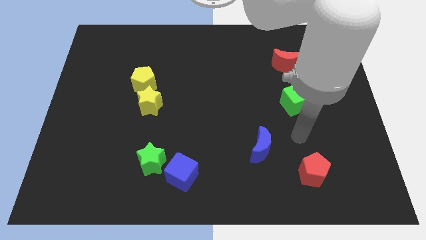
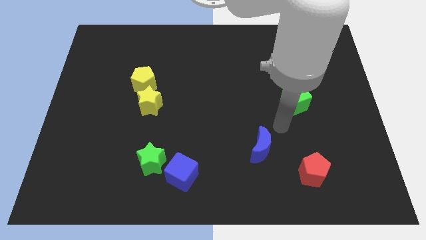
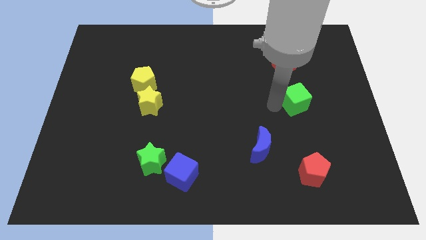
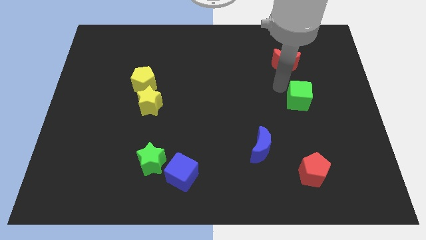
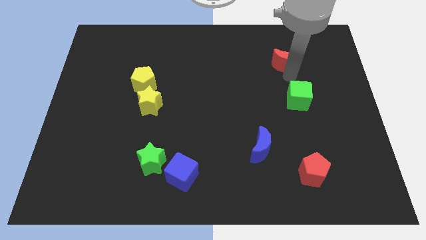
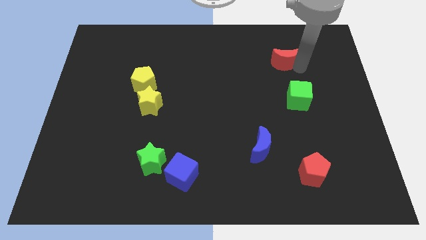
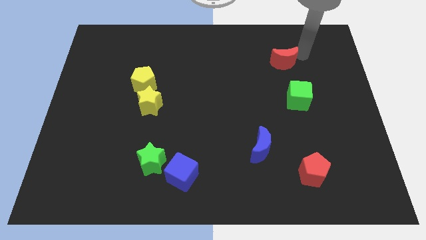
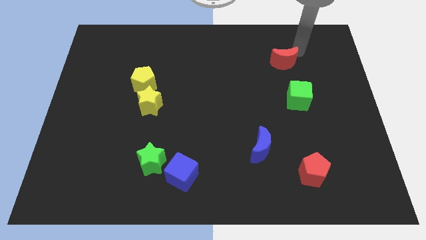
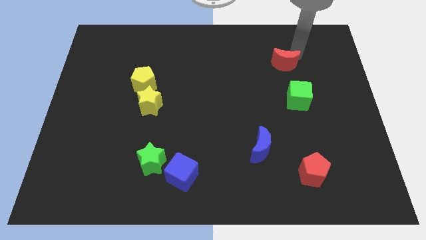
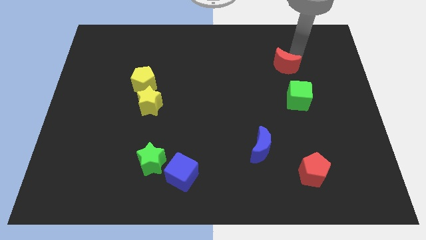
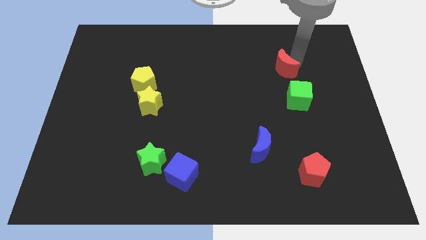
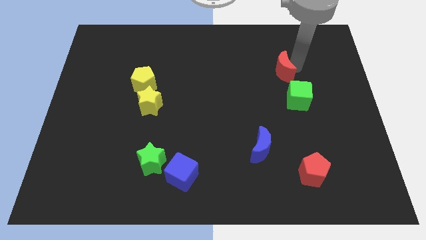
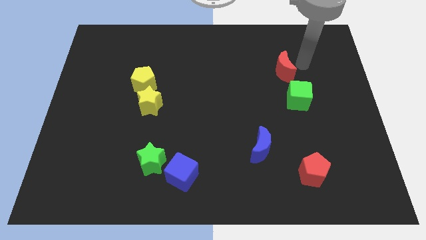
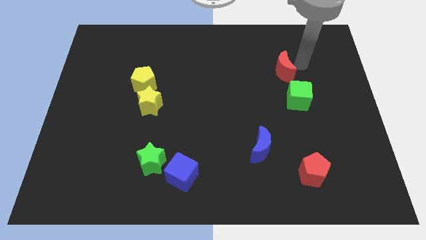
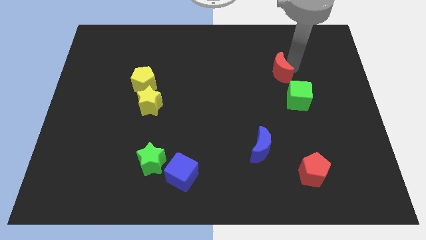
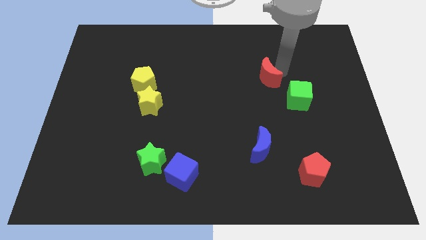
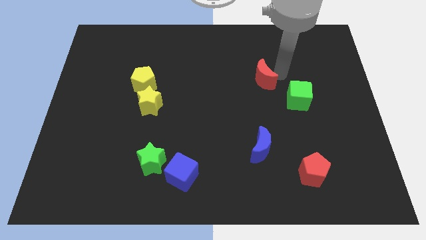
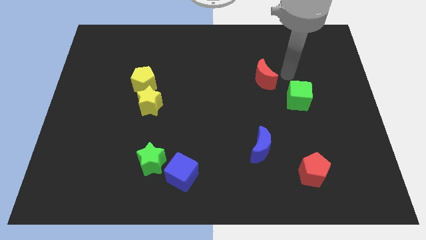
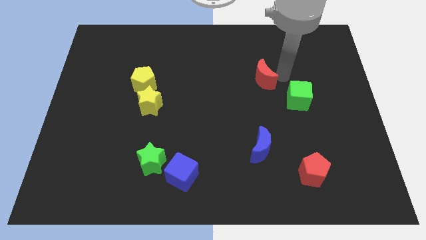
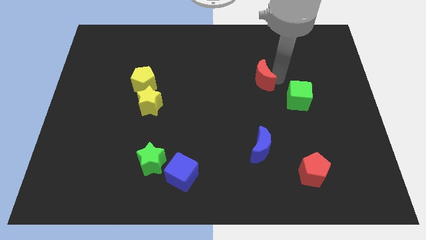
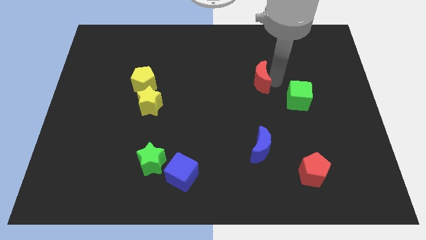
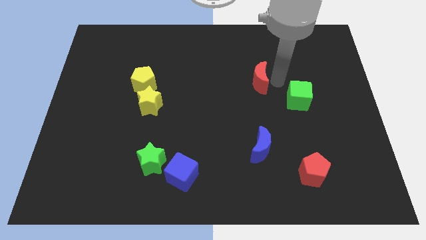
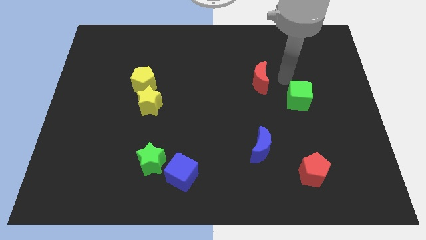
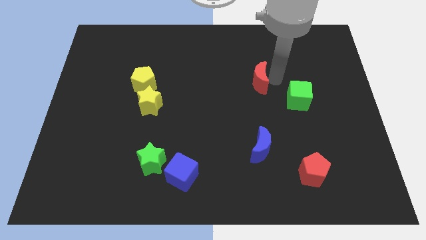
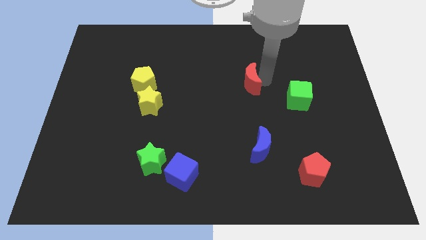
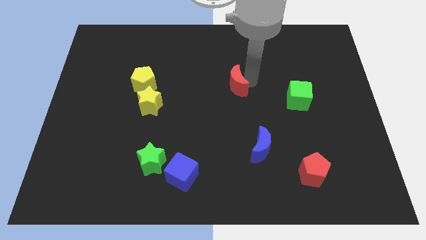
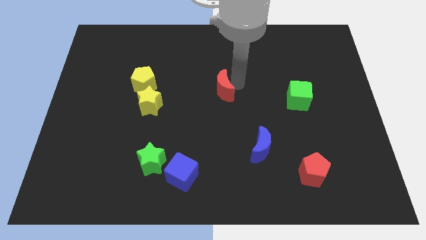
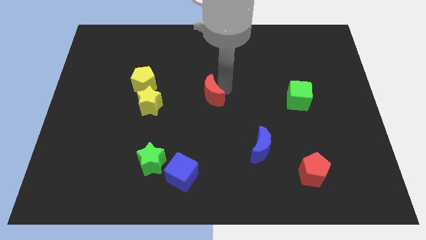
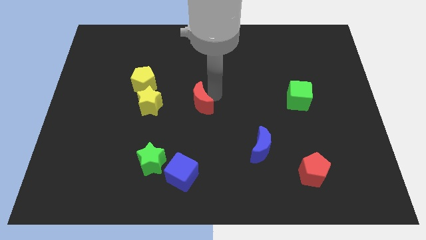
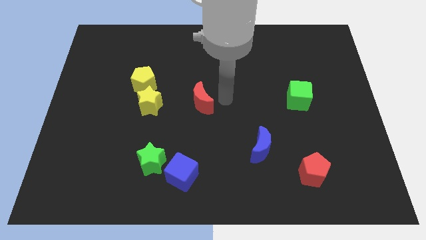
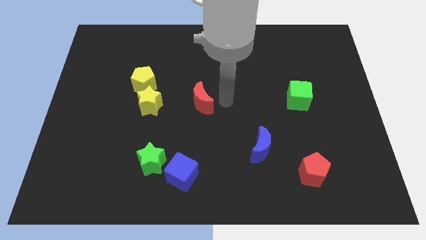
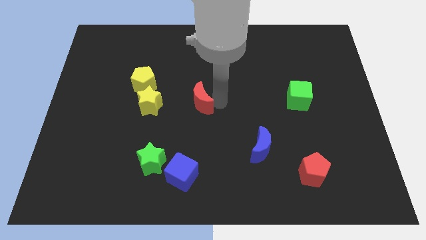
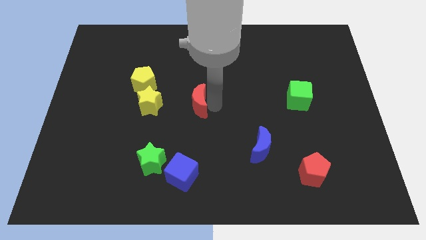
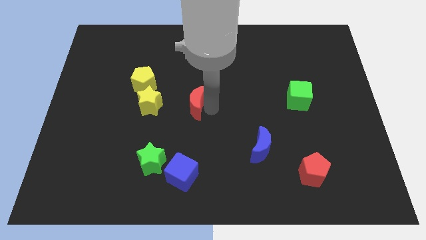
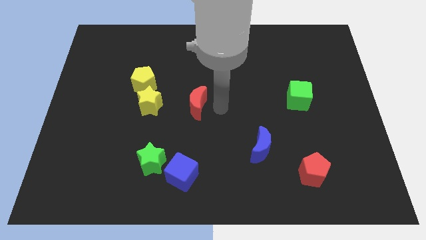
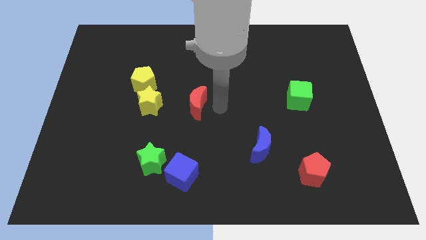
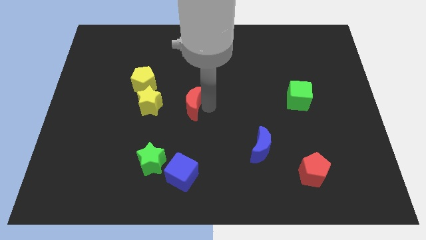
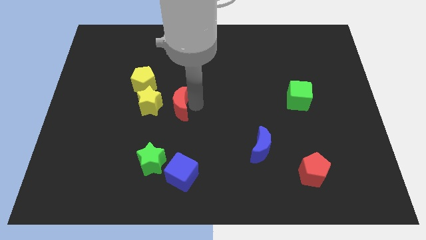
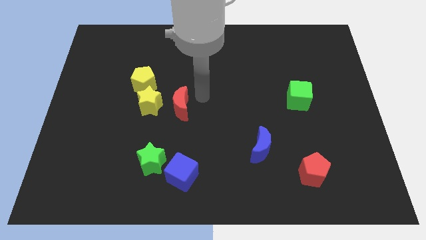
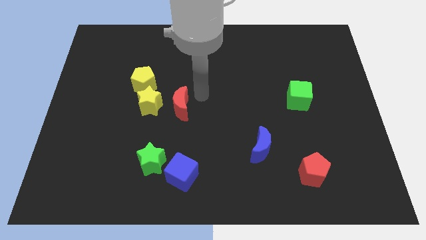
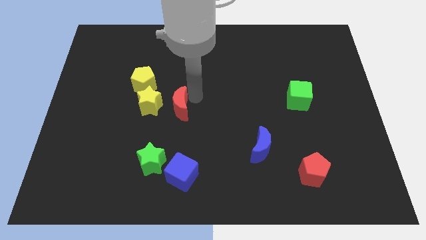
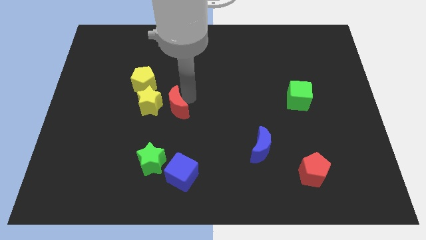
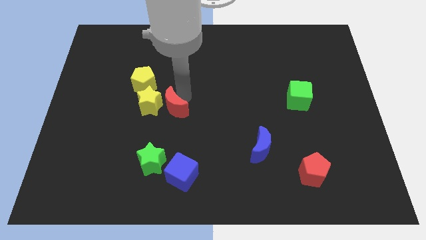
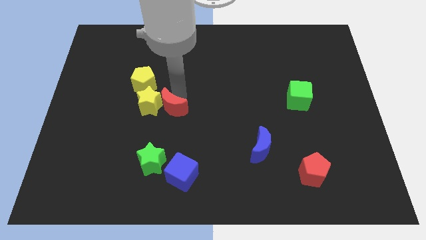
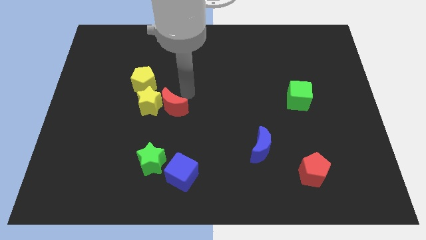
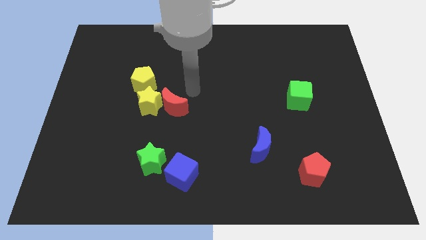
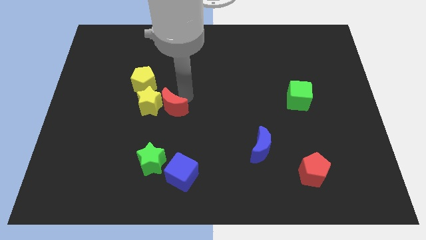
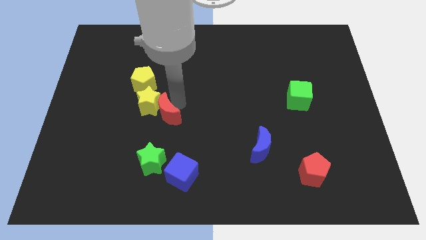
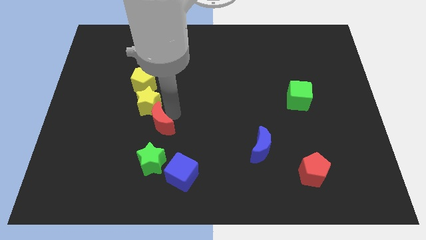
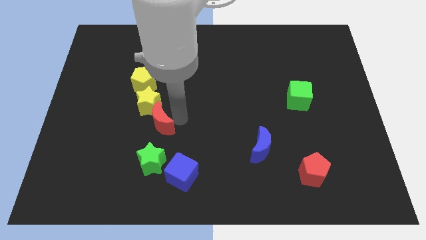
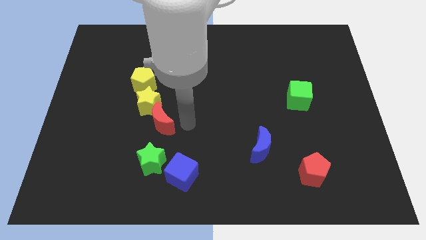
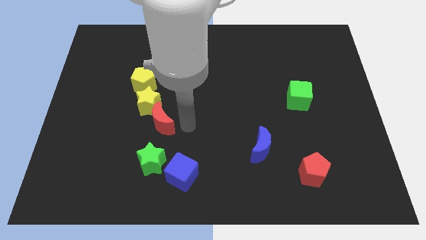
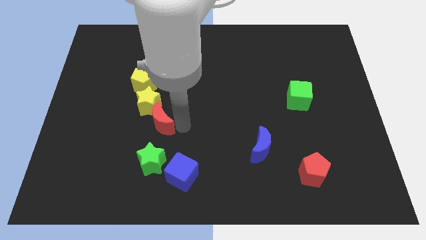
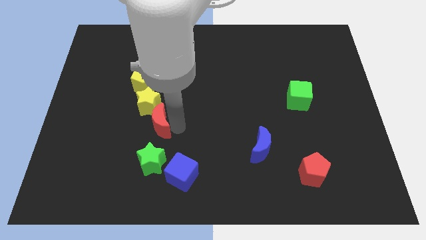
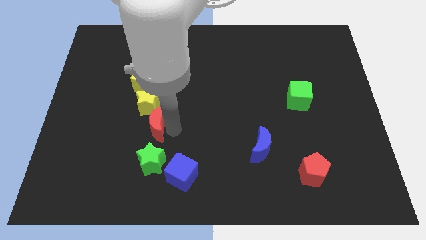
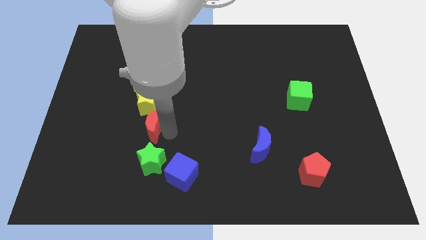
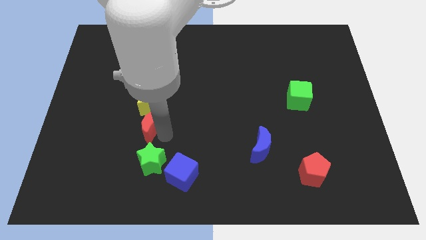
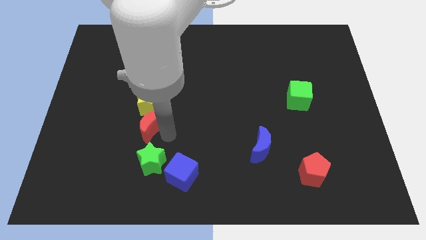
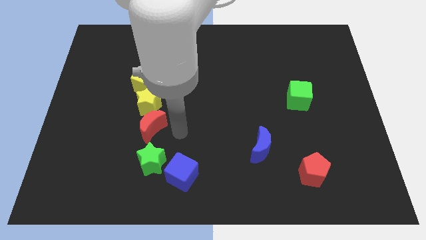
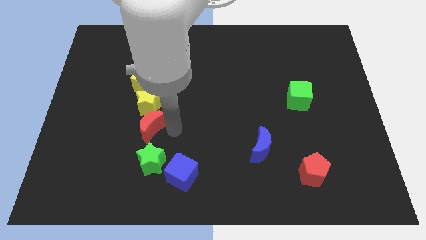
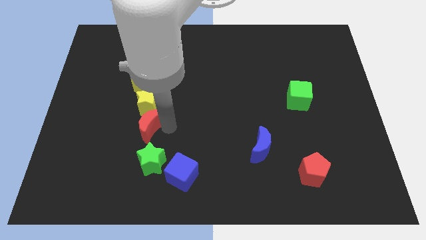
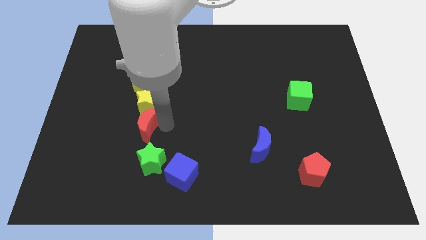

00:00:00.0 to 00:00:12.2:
put the red moon to the bottom left of the yellow star

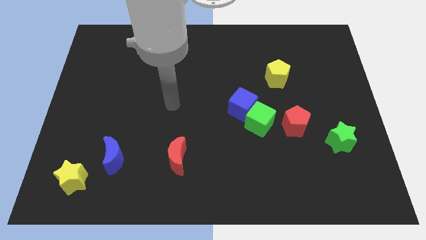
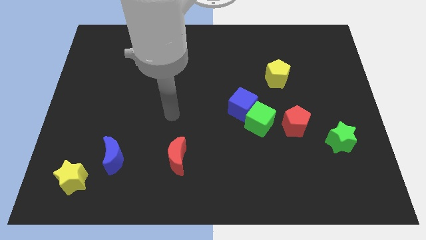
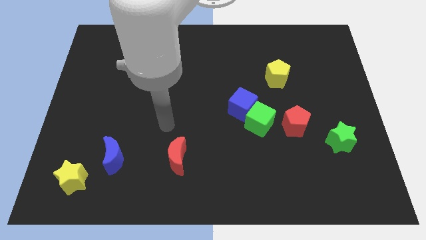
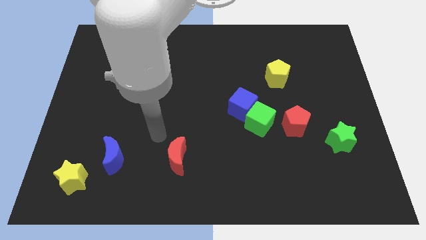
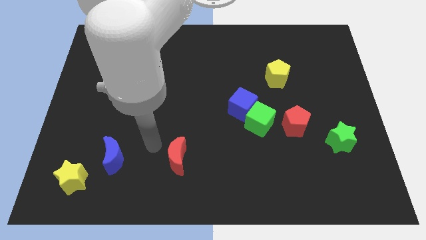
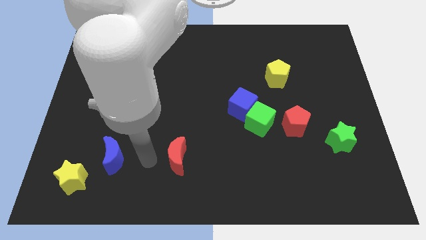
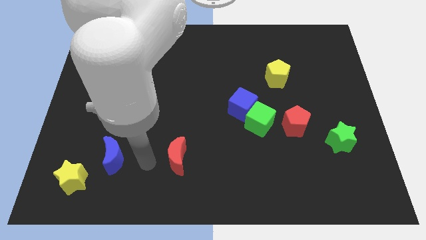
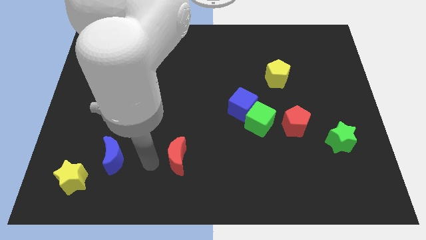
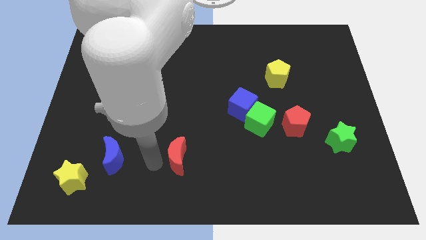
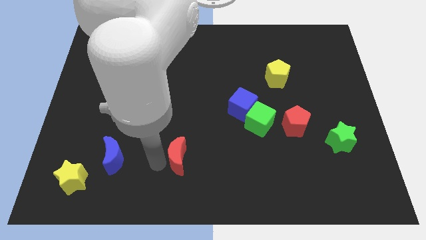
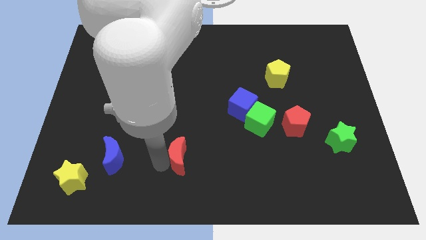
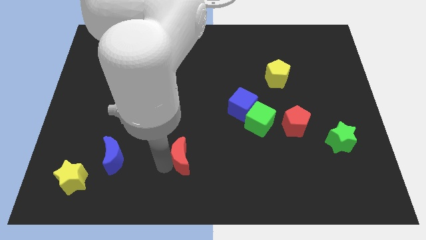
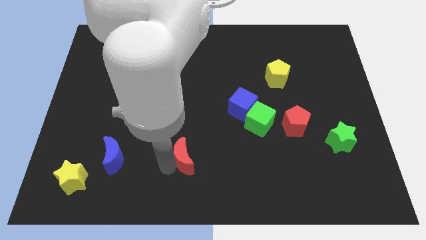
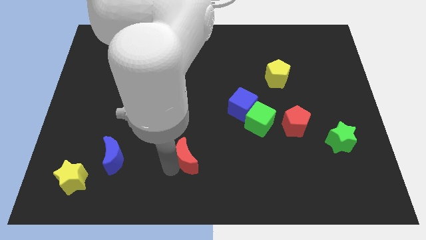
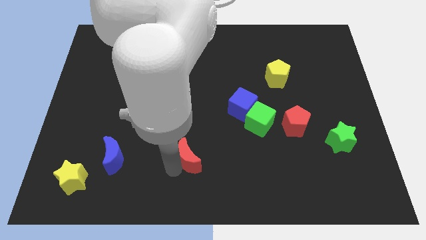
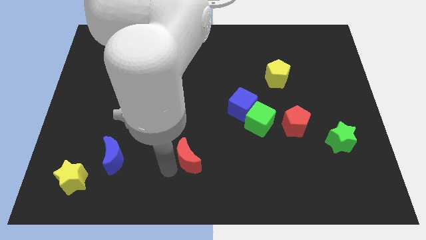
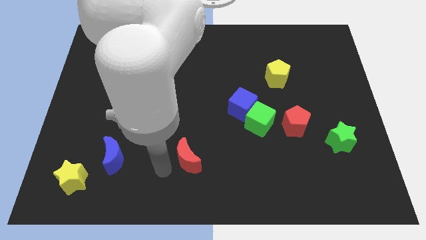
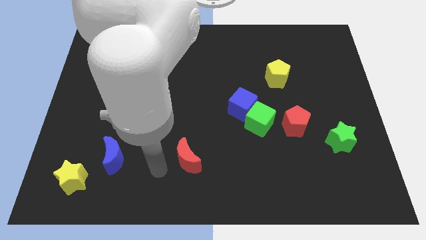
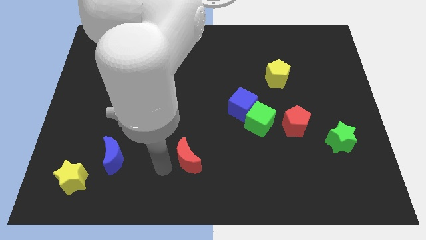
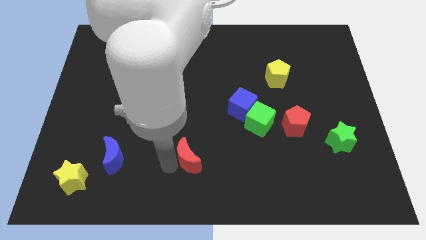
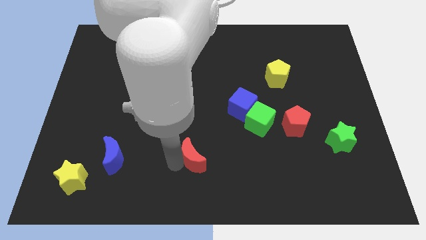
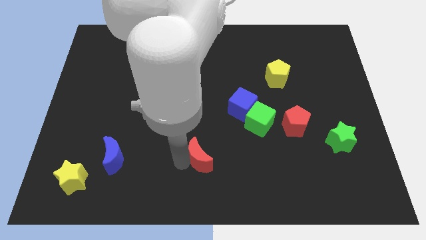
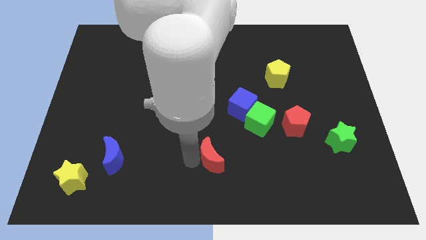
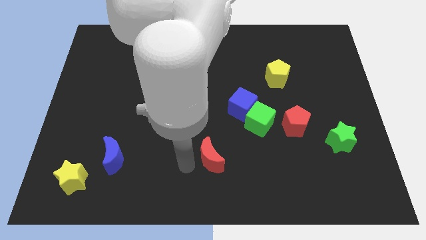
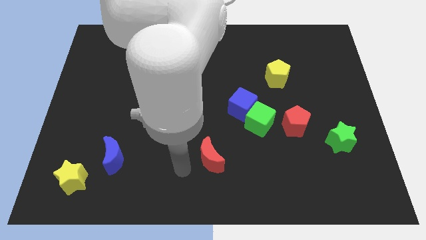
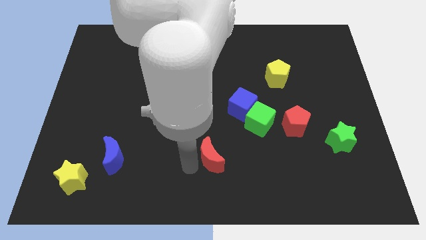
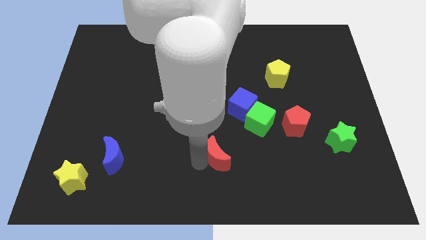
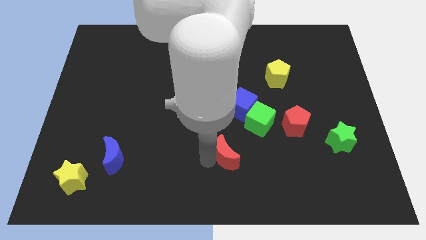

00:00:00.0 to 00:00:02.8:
push the red moon below the blue cube
